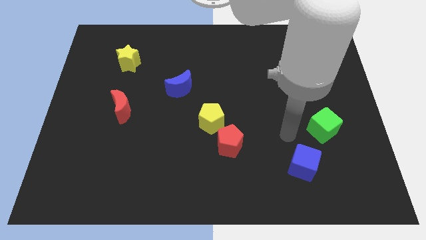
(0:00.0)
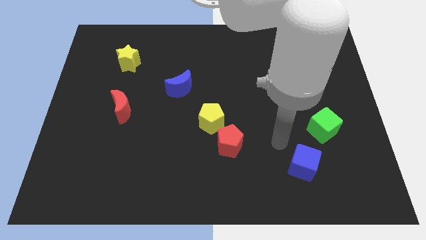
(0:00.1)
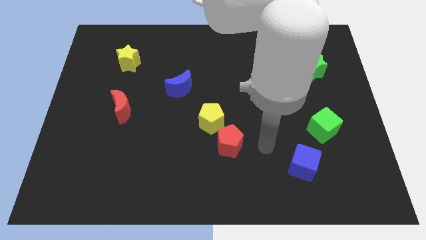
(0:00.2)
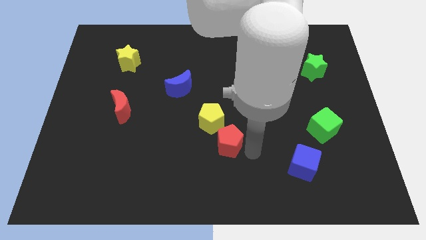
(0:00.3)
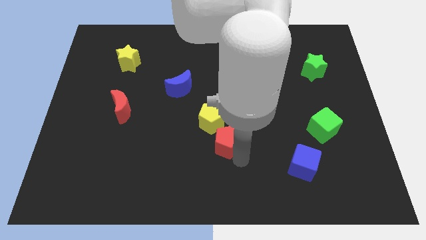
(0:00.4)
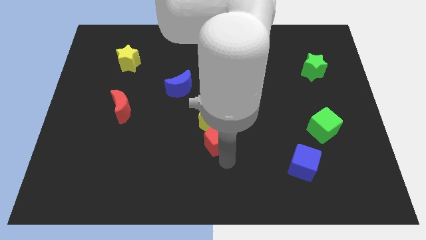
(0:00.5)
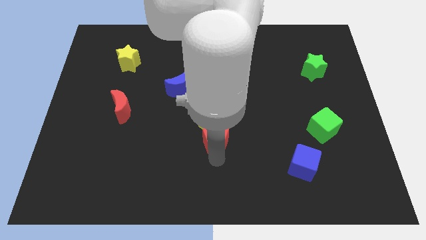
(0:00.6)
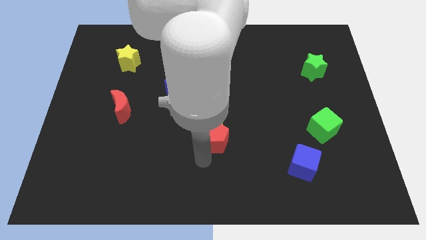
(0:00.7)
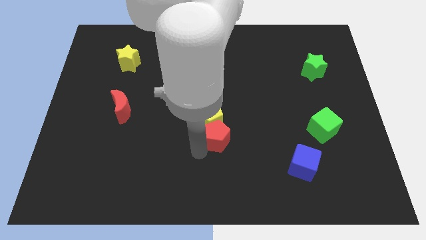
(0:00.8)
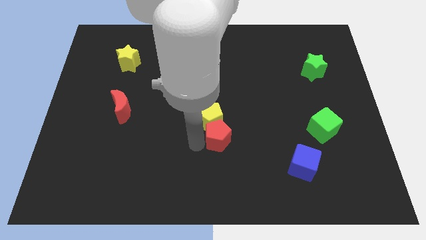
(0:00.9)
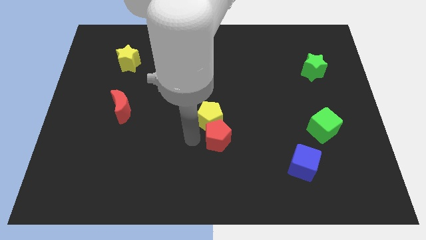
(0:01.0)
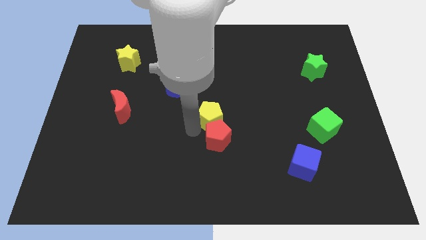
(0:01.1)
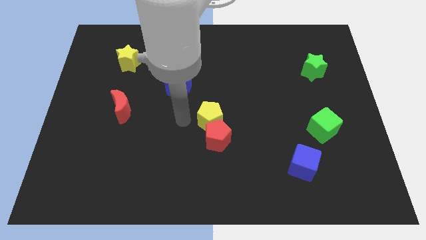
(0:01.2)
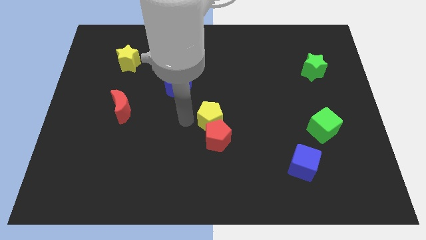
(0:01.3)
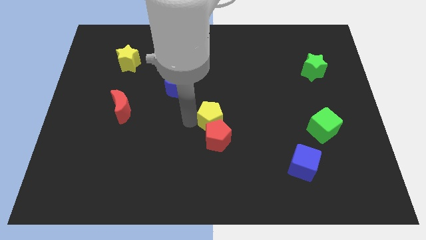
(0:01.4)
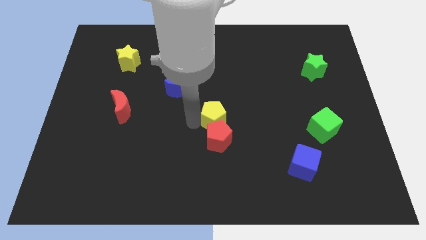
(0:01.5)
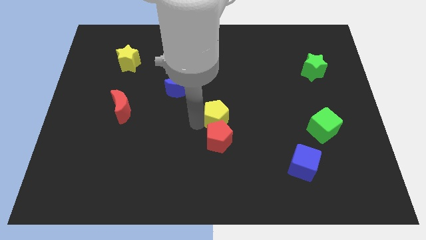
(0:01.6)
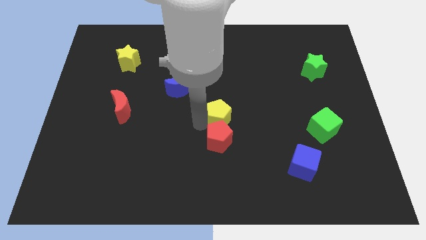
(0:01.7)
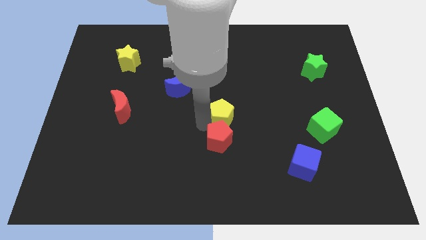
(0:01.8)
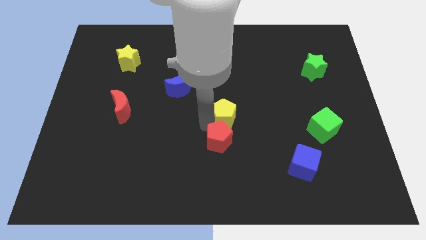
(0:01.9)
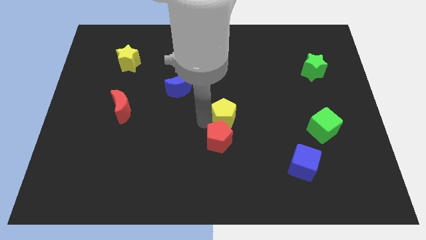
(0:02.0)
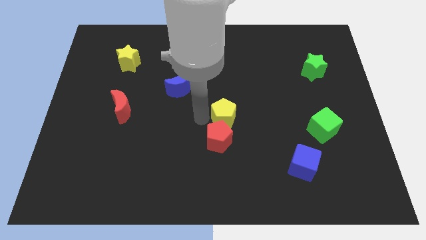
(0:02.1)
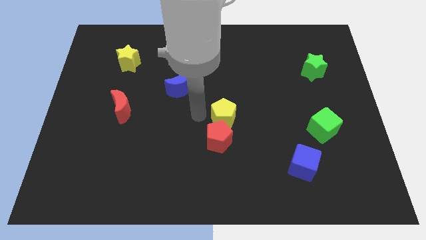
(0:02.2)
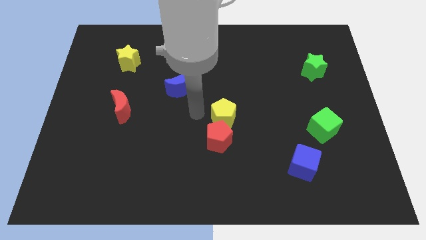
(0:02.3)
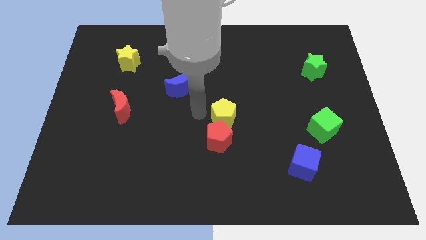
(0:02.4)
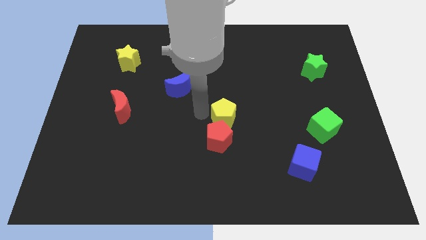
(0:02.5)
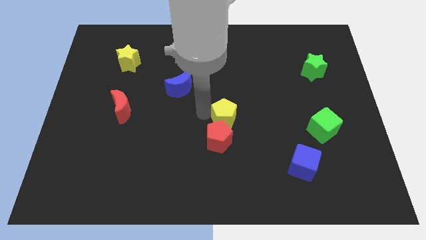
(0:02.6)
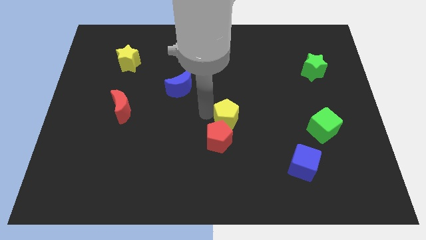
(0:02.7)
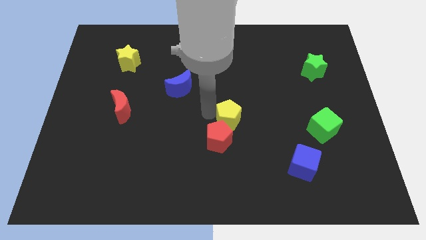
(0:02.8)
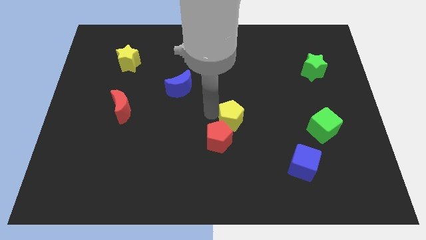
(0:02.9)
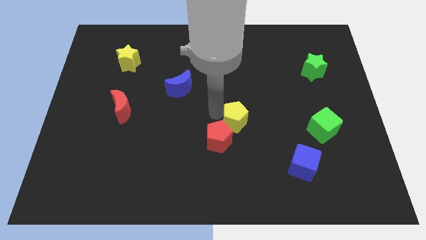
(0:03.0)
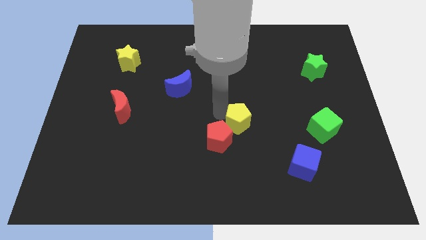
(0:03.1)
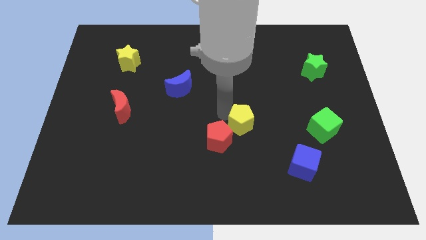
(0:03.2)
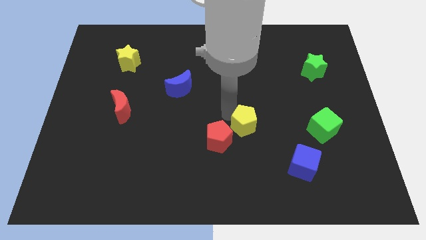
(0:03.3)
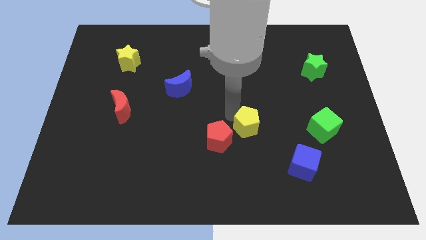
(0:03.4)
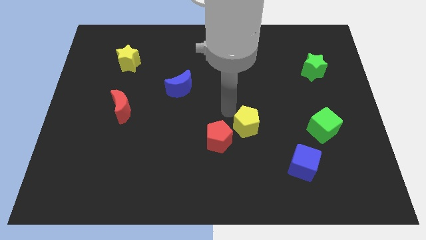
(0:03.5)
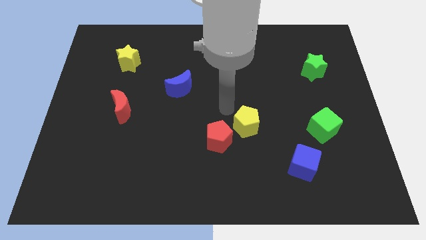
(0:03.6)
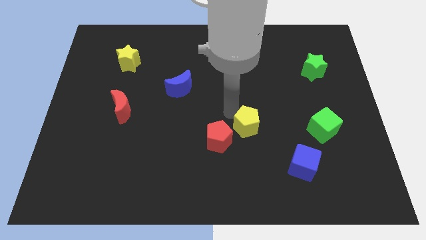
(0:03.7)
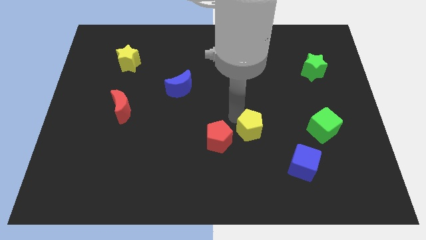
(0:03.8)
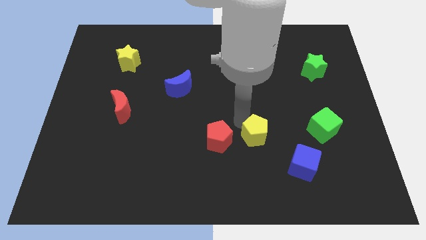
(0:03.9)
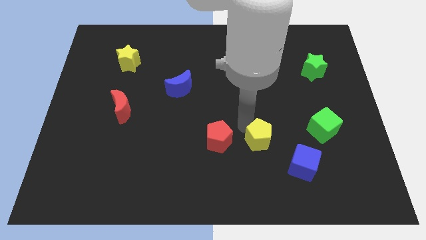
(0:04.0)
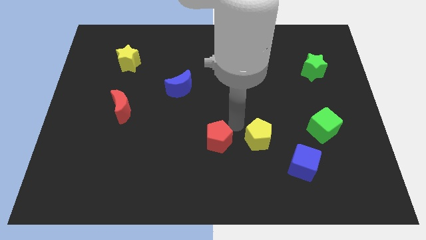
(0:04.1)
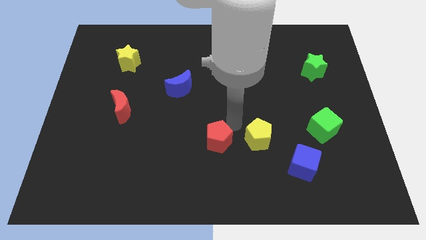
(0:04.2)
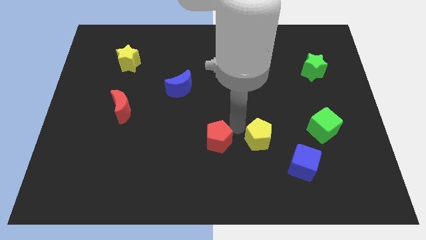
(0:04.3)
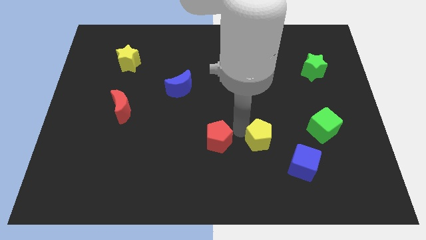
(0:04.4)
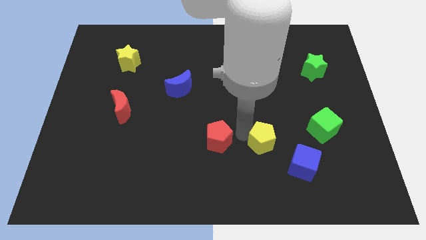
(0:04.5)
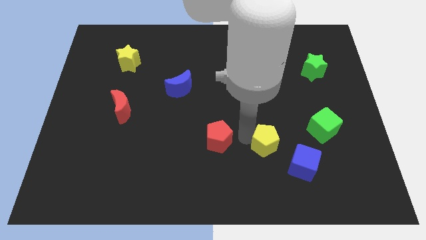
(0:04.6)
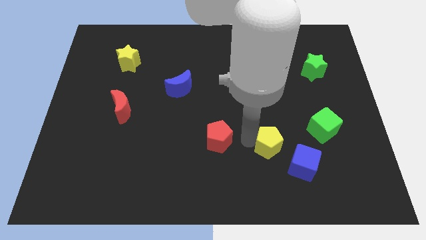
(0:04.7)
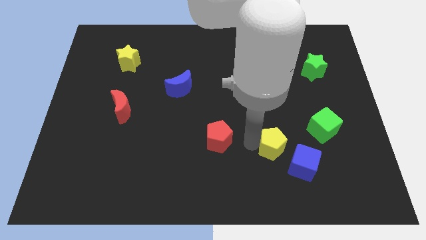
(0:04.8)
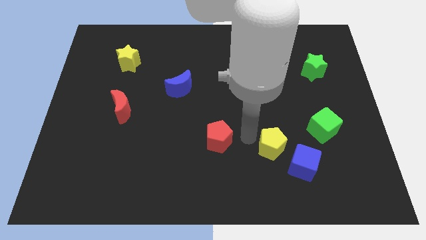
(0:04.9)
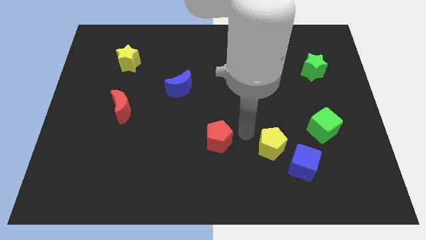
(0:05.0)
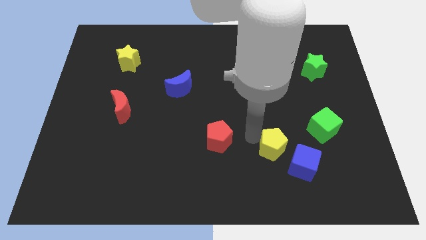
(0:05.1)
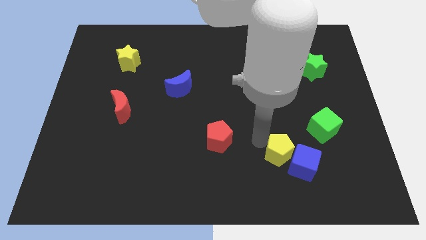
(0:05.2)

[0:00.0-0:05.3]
move the yellow pentagon to the blue cube
